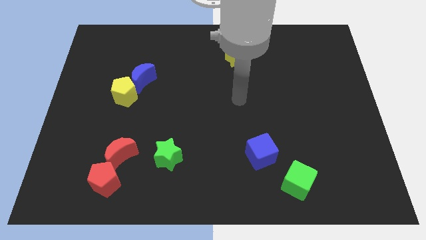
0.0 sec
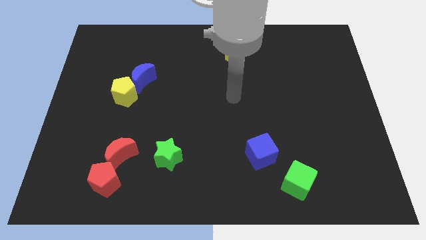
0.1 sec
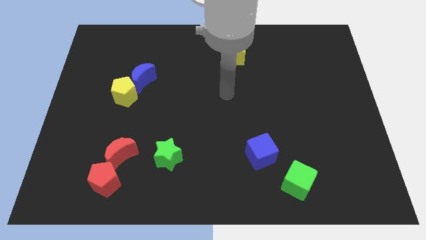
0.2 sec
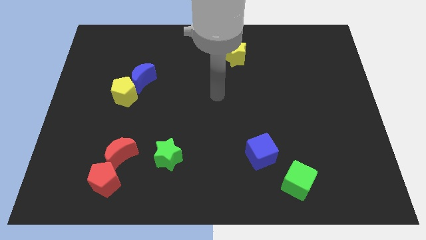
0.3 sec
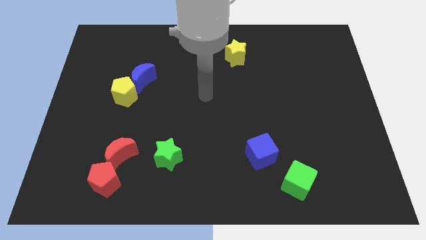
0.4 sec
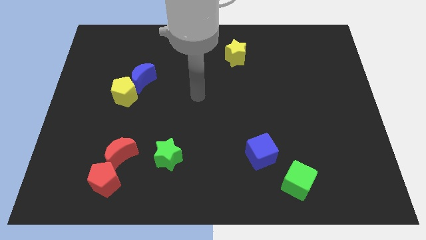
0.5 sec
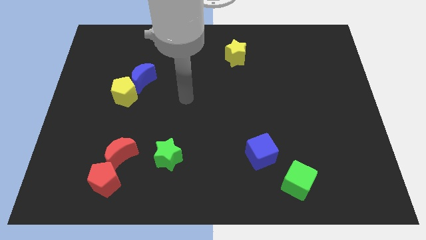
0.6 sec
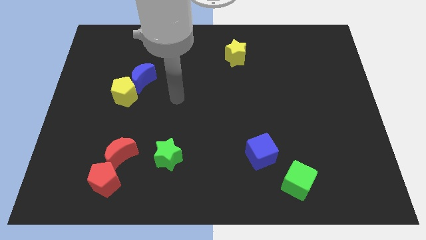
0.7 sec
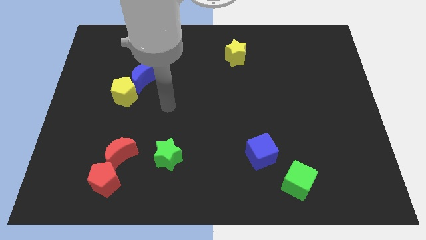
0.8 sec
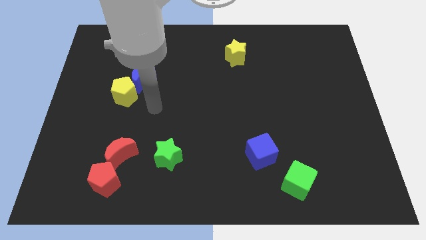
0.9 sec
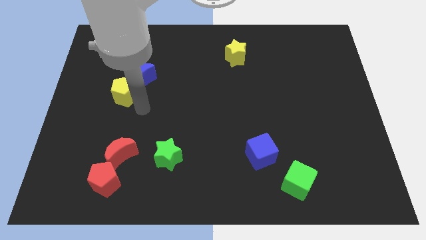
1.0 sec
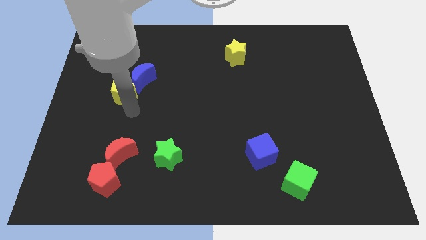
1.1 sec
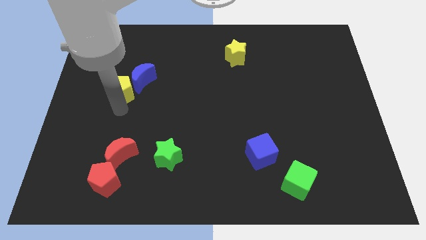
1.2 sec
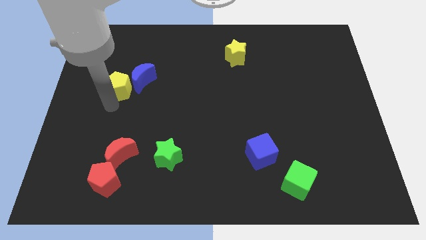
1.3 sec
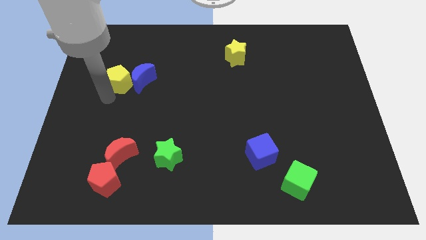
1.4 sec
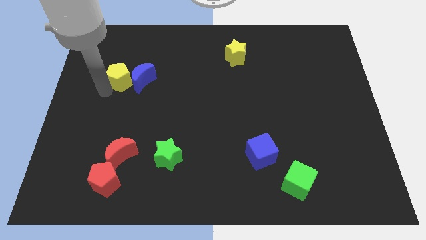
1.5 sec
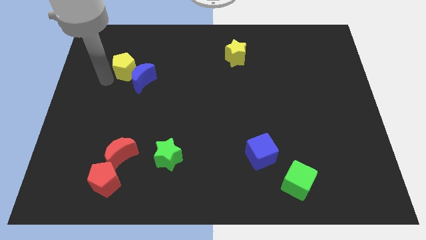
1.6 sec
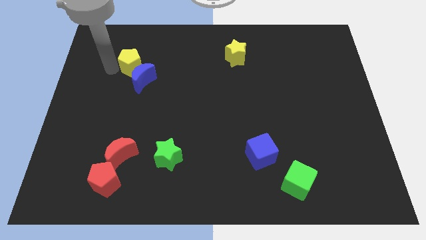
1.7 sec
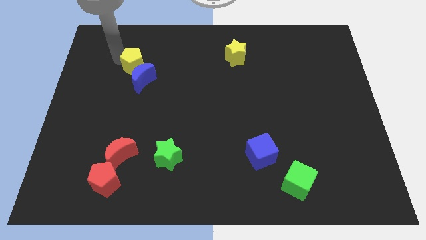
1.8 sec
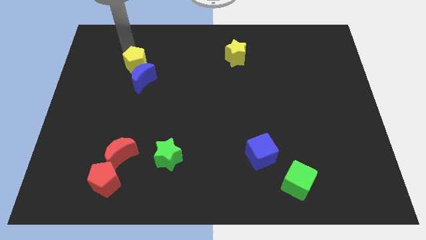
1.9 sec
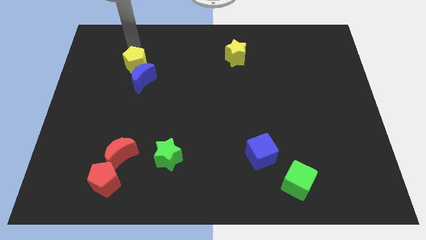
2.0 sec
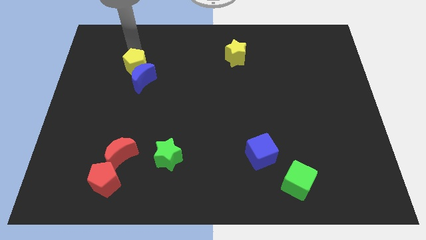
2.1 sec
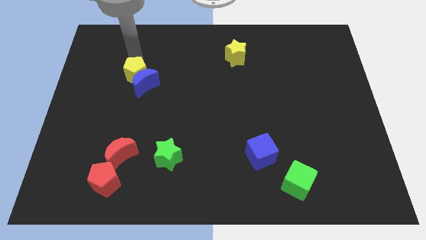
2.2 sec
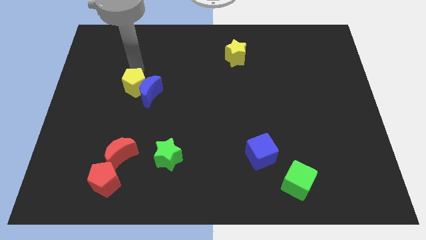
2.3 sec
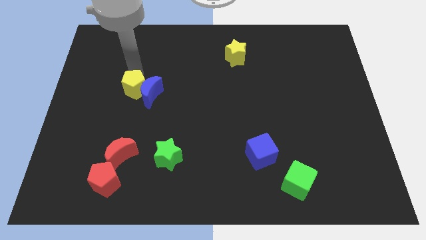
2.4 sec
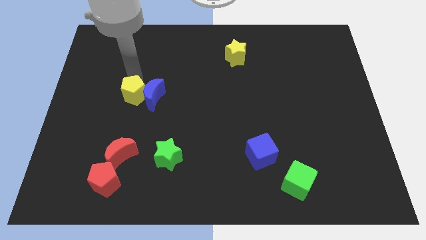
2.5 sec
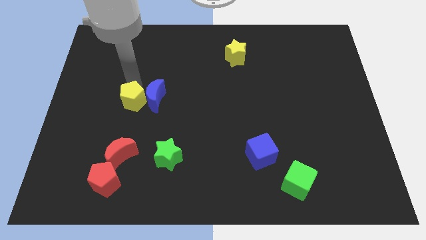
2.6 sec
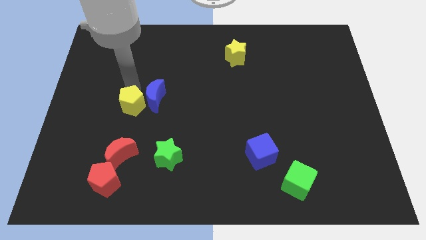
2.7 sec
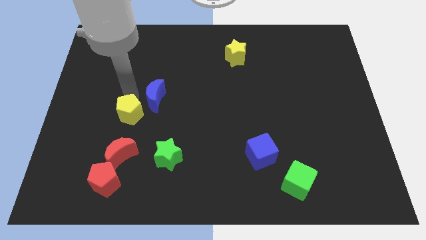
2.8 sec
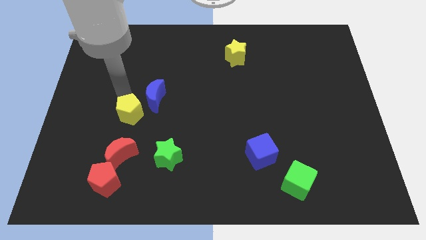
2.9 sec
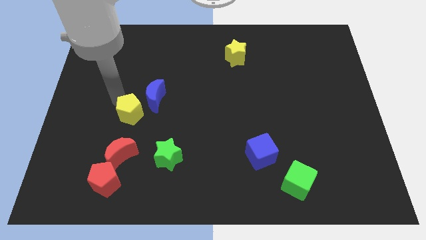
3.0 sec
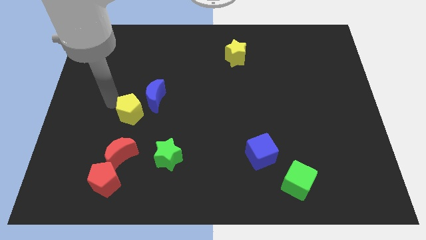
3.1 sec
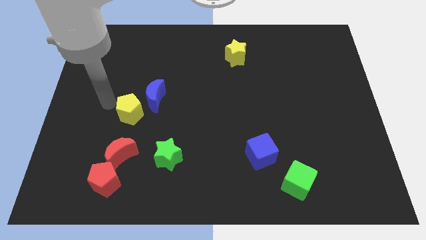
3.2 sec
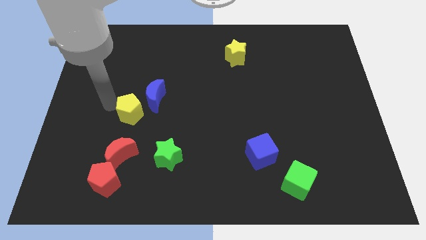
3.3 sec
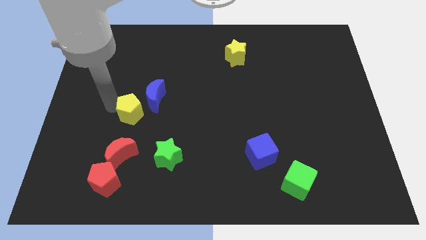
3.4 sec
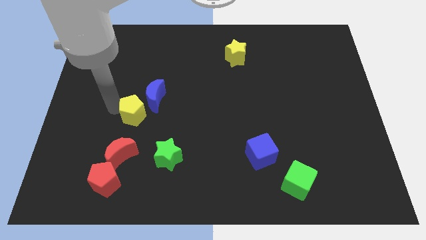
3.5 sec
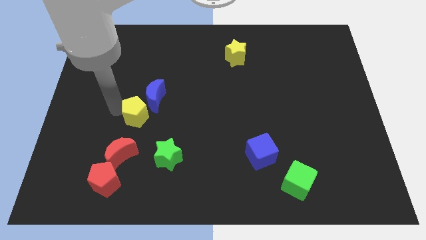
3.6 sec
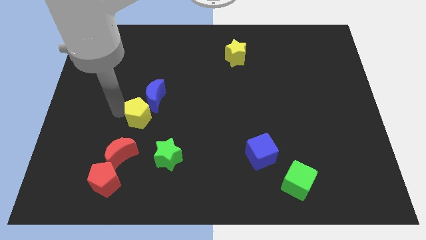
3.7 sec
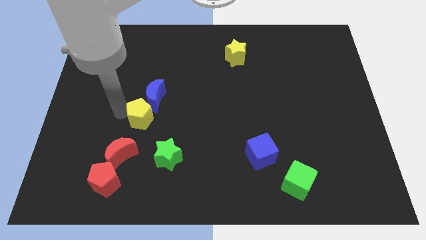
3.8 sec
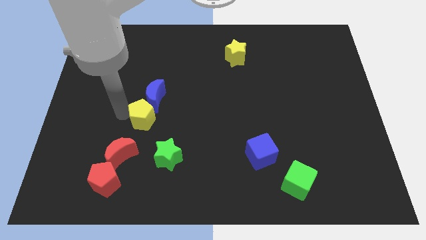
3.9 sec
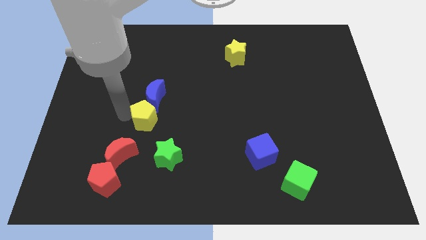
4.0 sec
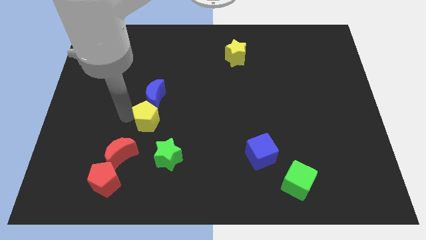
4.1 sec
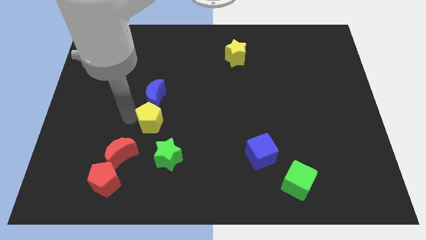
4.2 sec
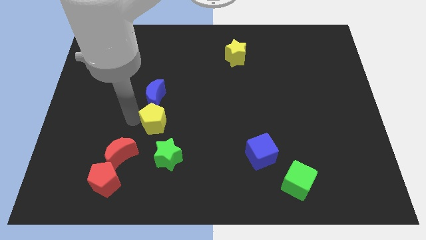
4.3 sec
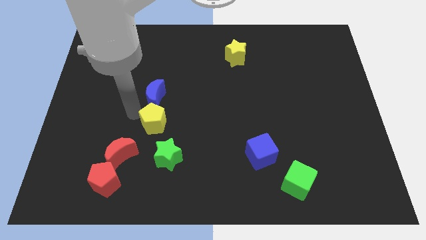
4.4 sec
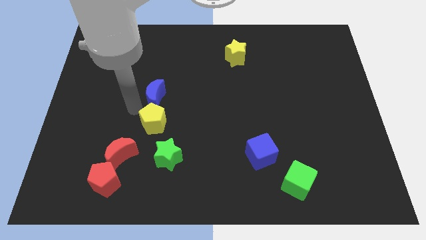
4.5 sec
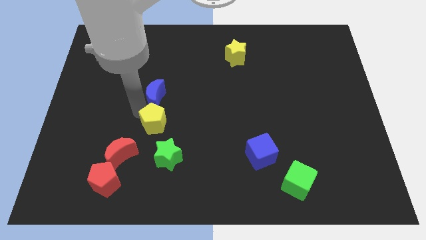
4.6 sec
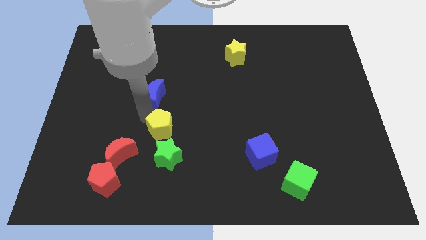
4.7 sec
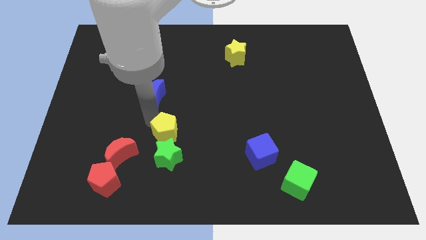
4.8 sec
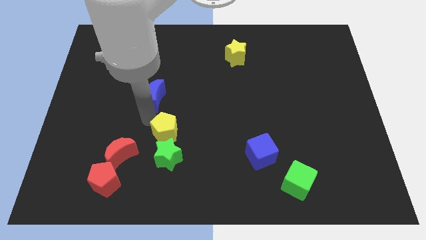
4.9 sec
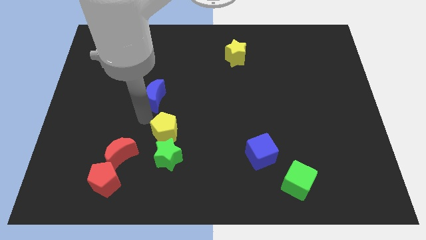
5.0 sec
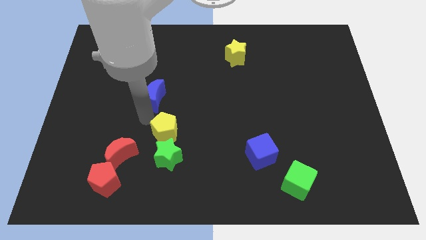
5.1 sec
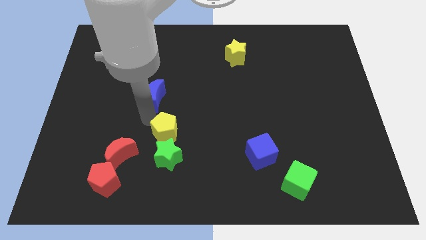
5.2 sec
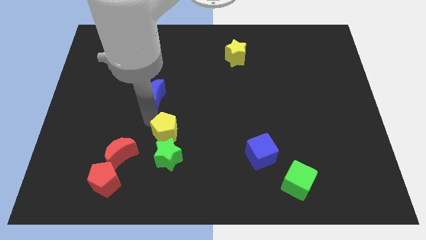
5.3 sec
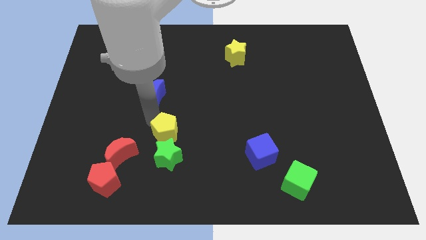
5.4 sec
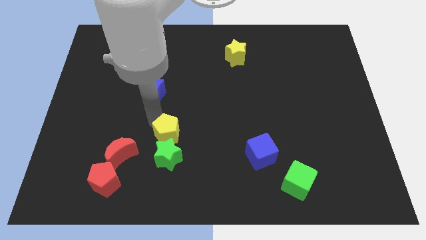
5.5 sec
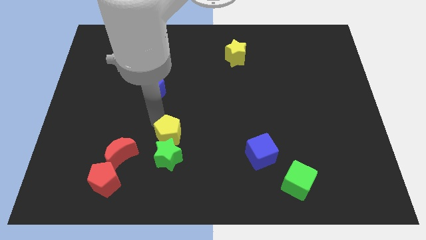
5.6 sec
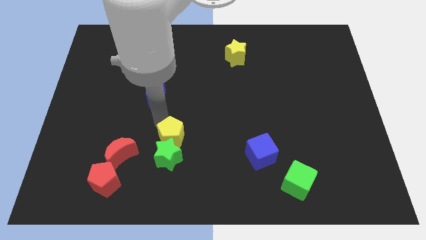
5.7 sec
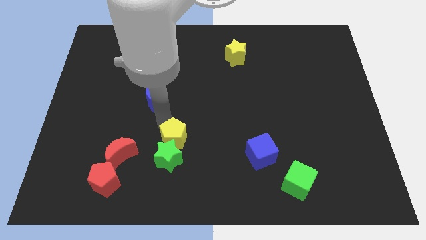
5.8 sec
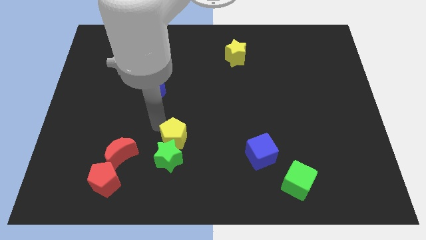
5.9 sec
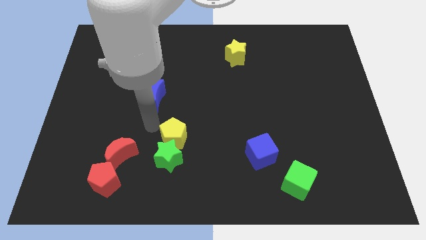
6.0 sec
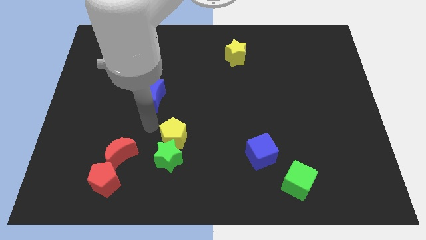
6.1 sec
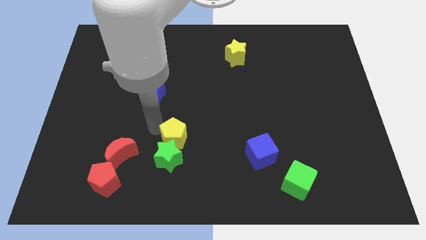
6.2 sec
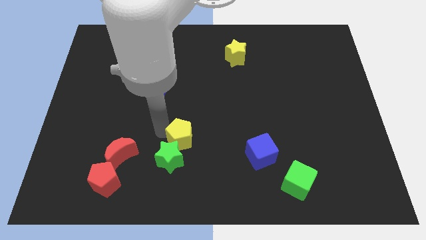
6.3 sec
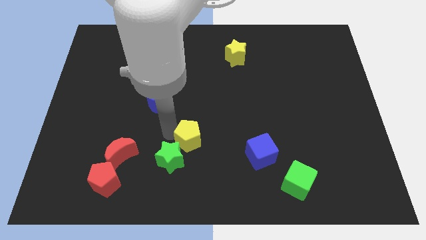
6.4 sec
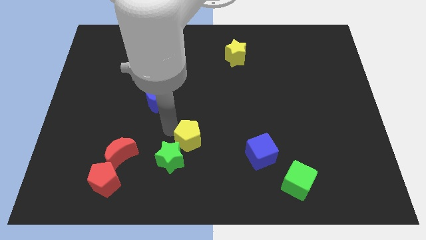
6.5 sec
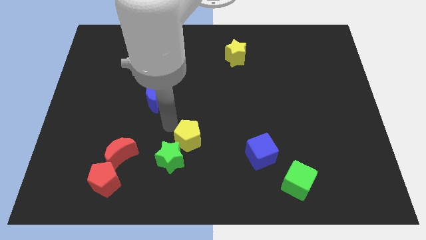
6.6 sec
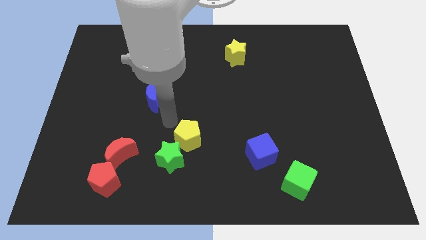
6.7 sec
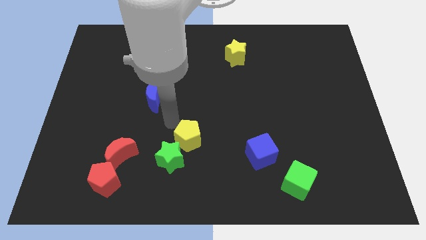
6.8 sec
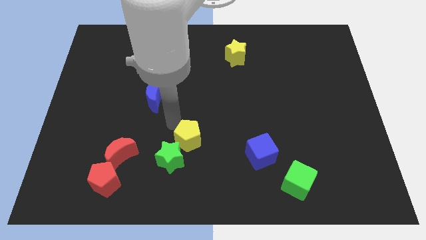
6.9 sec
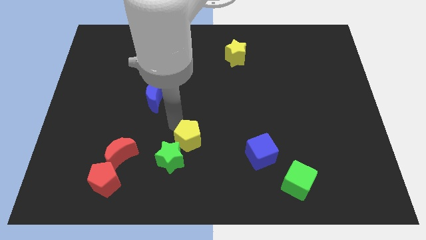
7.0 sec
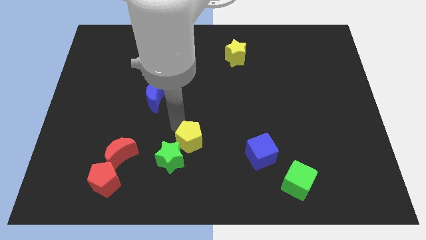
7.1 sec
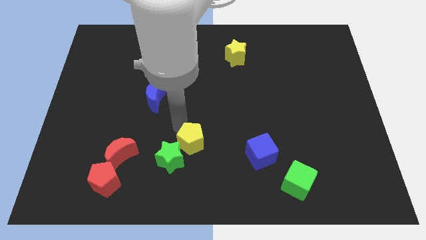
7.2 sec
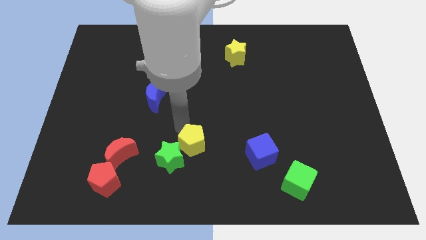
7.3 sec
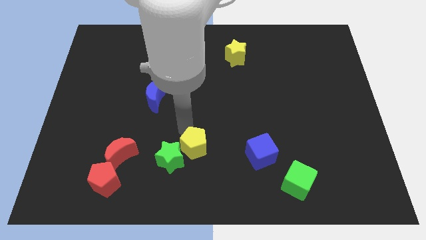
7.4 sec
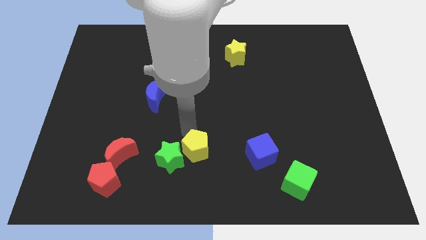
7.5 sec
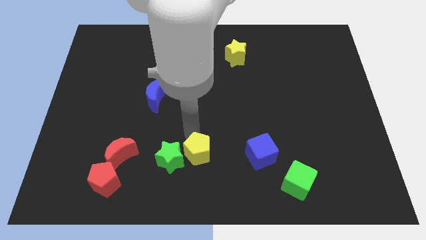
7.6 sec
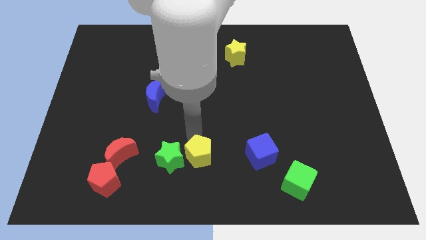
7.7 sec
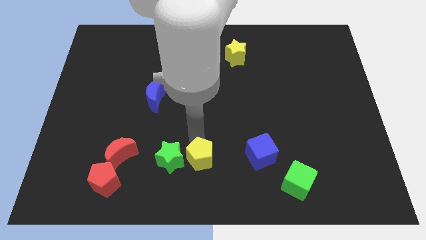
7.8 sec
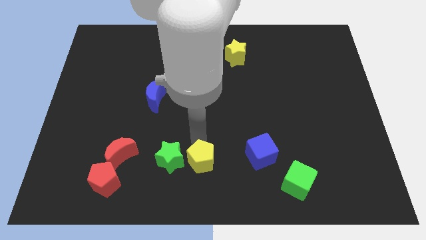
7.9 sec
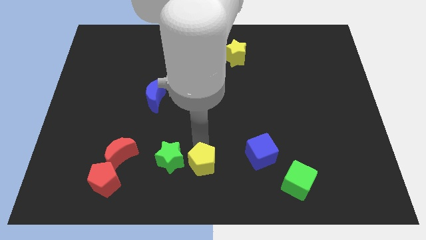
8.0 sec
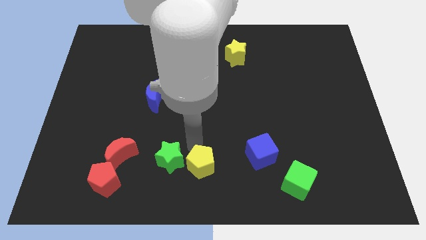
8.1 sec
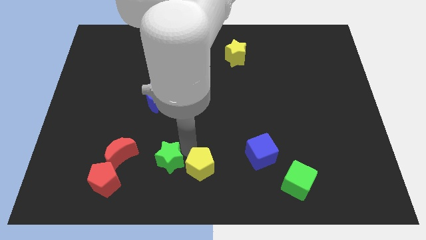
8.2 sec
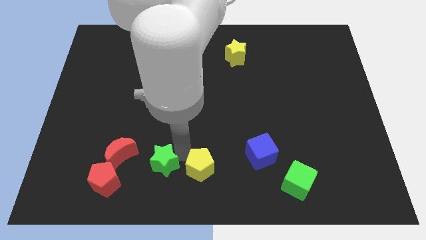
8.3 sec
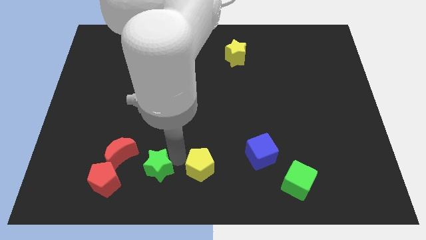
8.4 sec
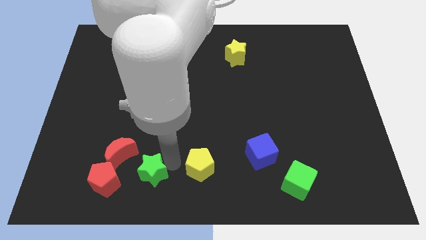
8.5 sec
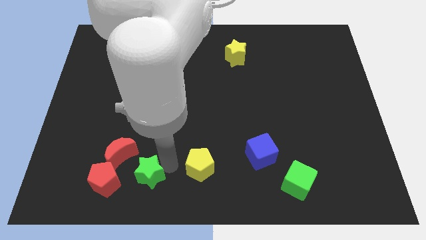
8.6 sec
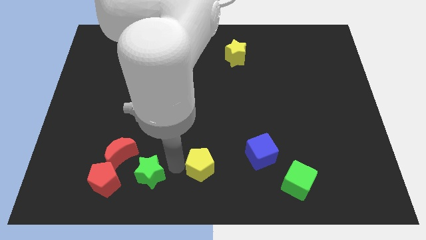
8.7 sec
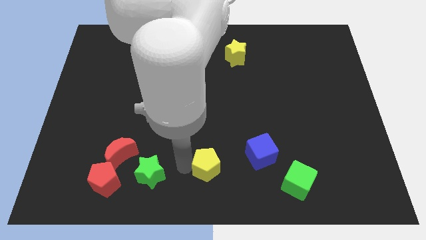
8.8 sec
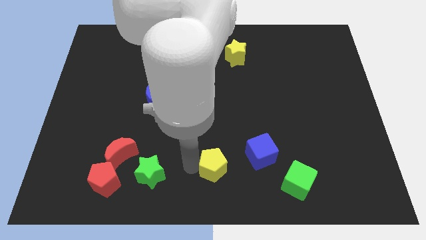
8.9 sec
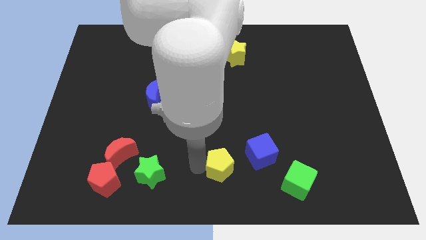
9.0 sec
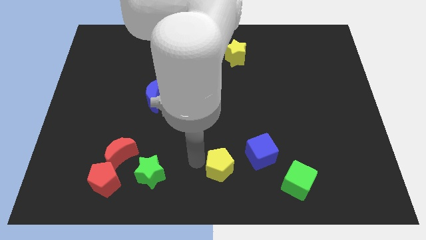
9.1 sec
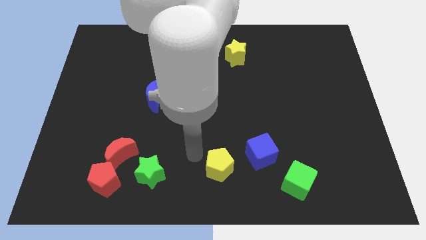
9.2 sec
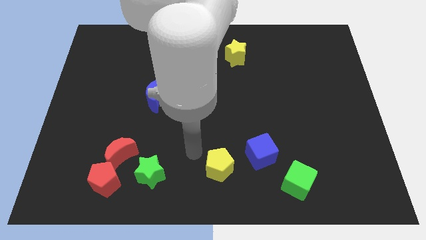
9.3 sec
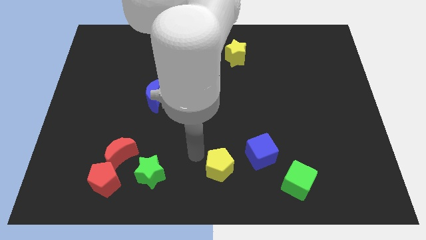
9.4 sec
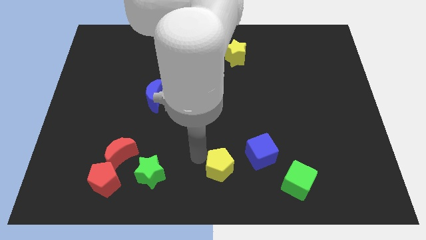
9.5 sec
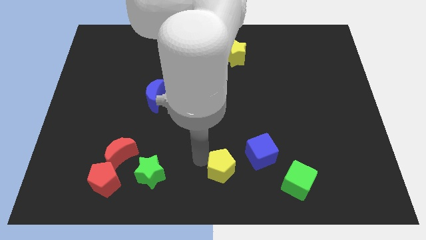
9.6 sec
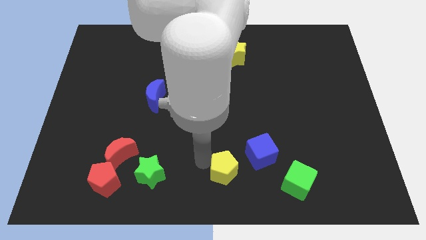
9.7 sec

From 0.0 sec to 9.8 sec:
push the yellow pentagon to the left of the green cube
